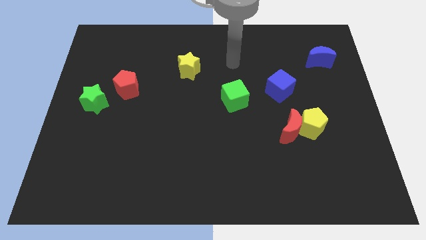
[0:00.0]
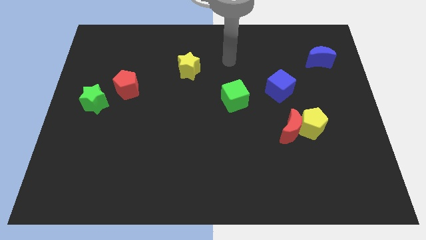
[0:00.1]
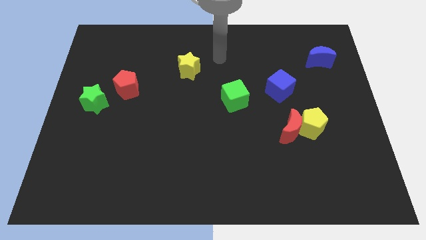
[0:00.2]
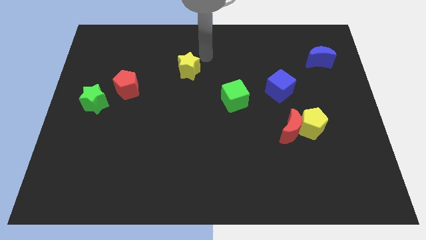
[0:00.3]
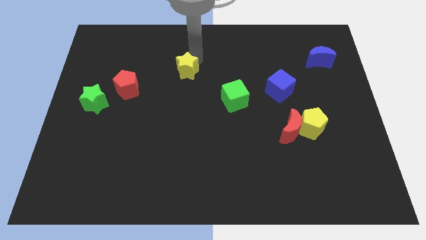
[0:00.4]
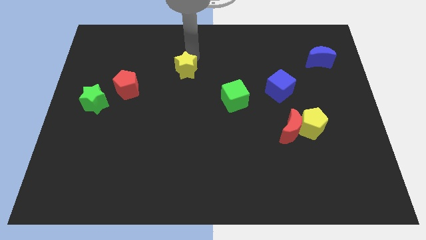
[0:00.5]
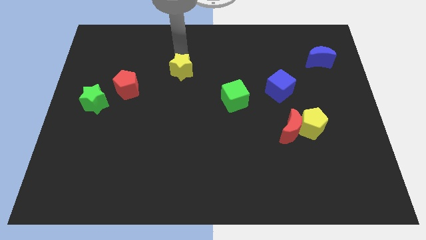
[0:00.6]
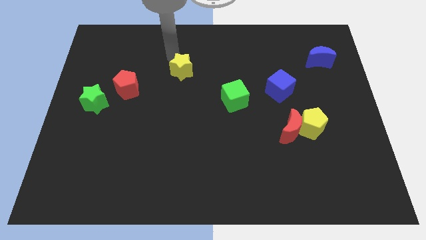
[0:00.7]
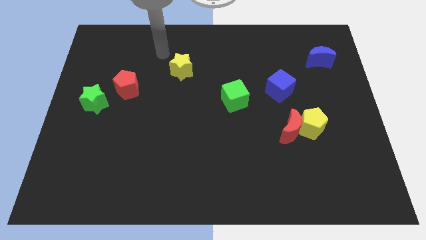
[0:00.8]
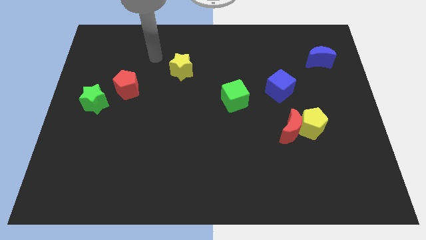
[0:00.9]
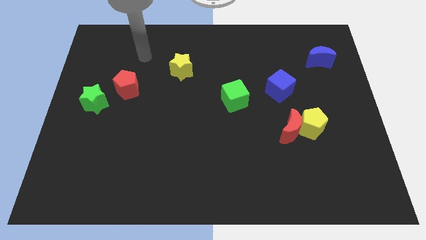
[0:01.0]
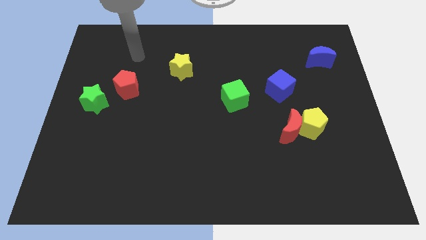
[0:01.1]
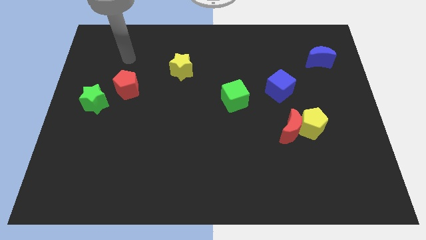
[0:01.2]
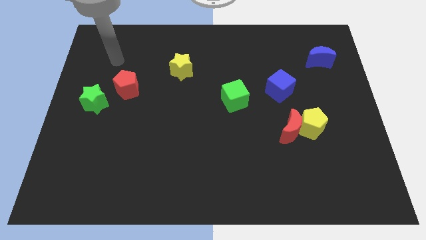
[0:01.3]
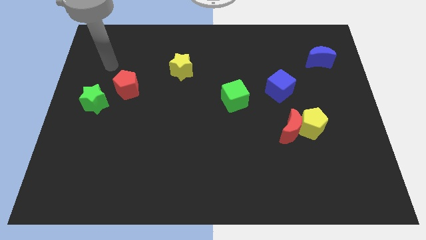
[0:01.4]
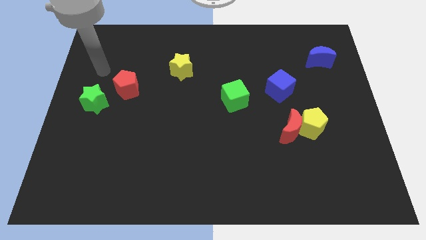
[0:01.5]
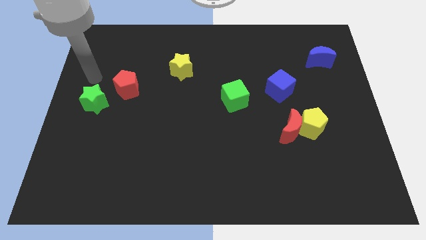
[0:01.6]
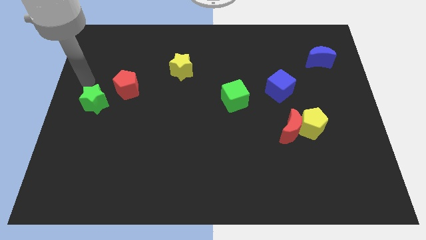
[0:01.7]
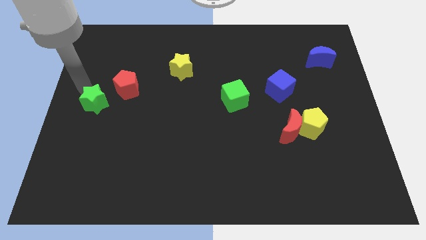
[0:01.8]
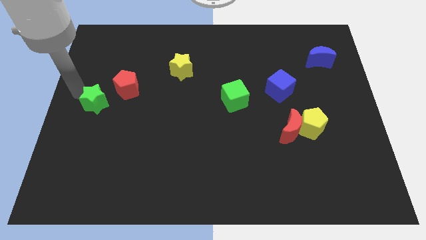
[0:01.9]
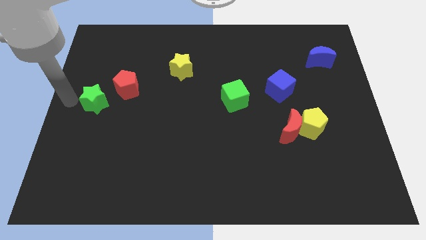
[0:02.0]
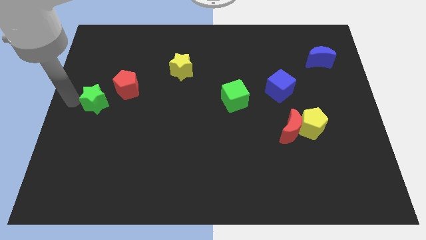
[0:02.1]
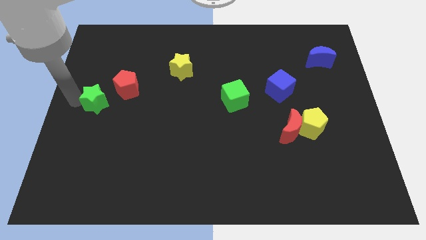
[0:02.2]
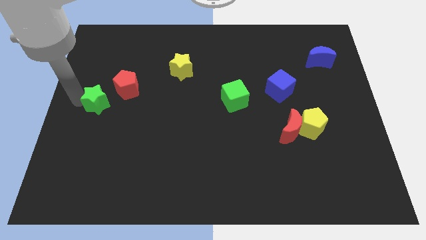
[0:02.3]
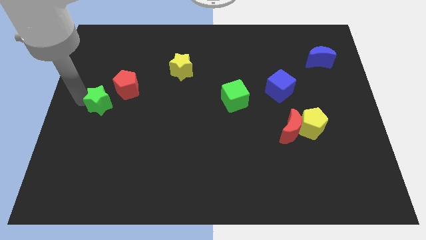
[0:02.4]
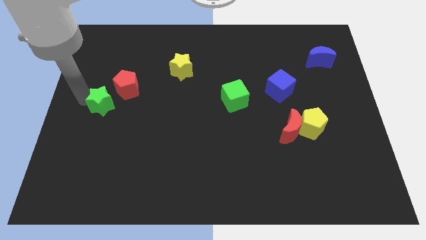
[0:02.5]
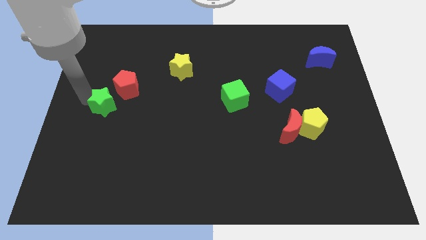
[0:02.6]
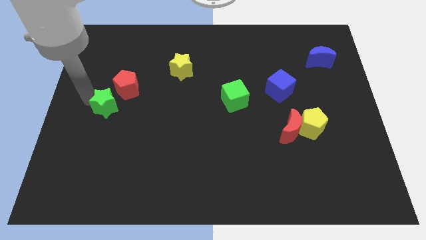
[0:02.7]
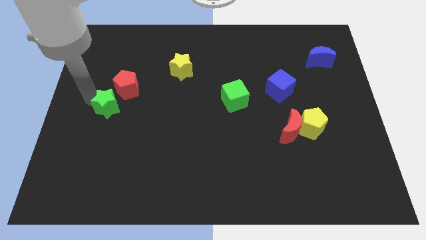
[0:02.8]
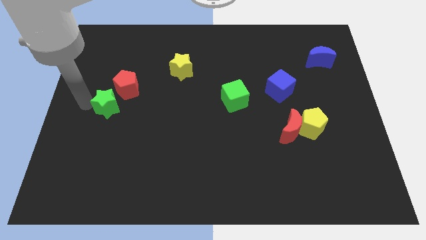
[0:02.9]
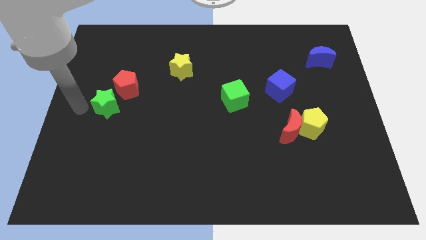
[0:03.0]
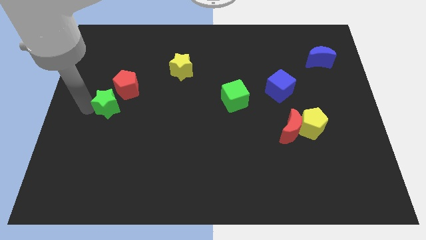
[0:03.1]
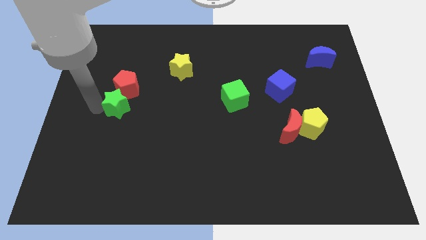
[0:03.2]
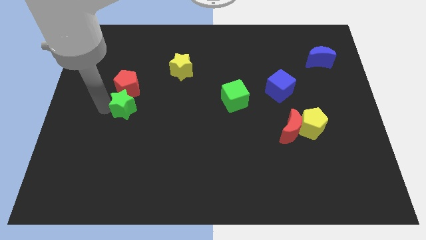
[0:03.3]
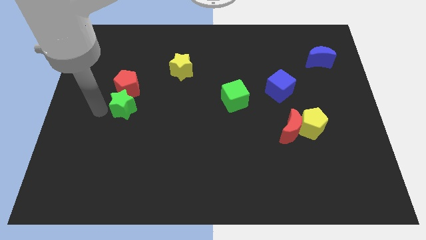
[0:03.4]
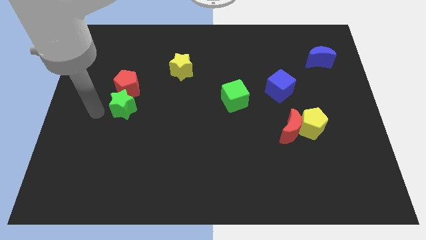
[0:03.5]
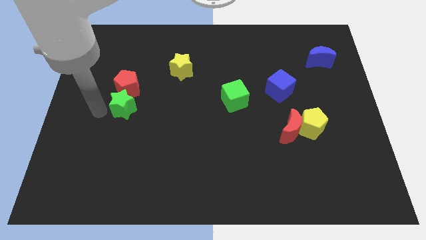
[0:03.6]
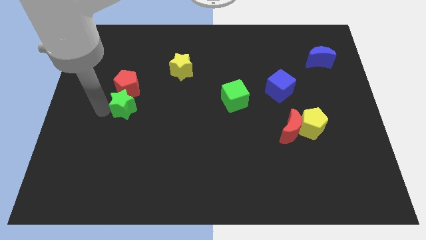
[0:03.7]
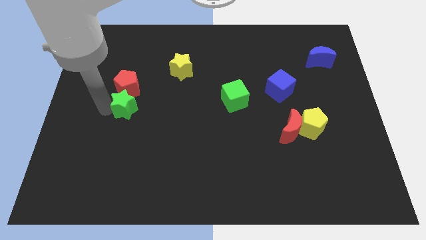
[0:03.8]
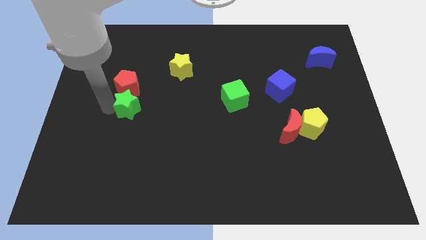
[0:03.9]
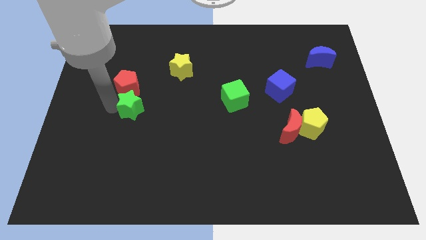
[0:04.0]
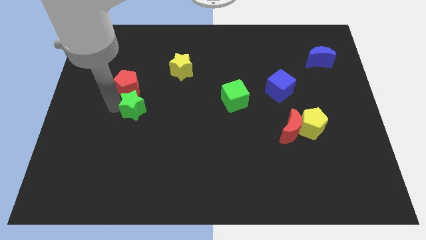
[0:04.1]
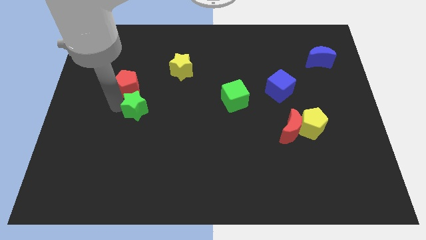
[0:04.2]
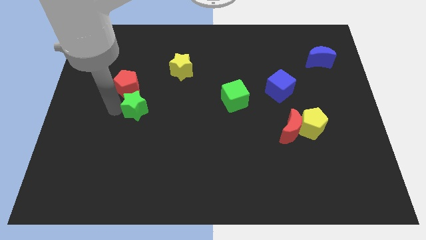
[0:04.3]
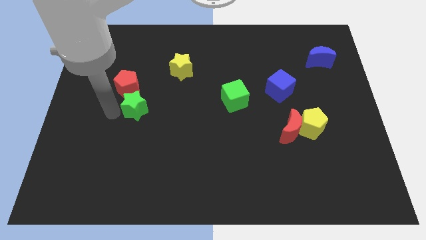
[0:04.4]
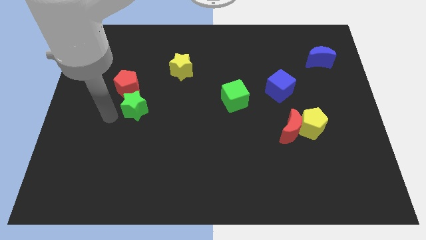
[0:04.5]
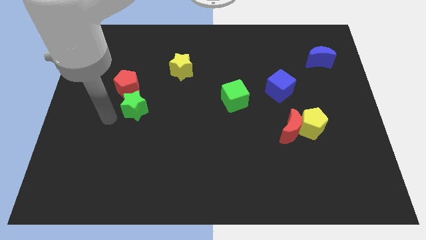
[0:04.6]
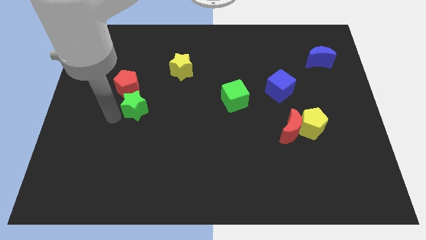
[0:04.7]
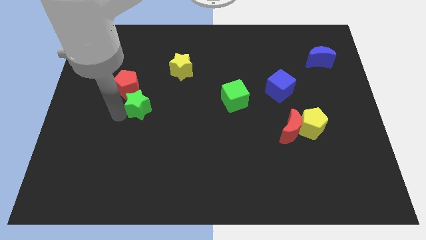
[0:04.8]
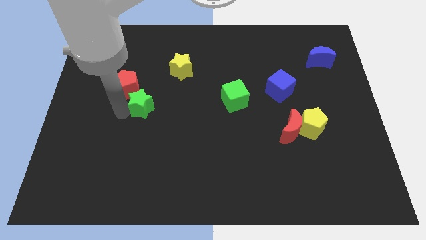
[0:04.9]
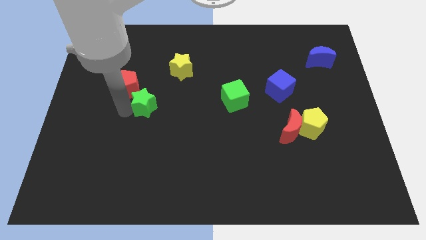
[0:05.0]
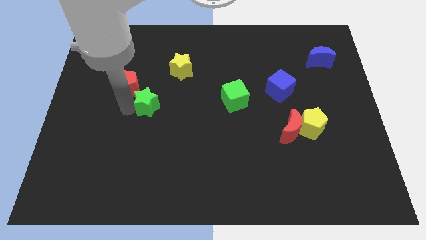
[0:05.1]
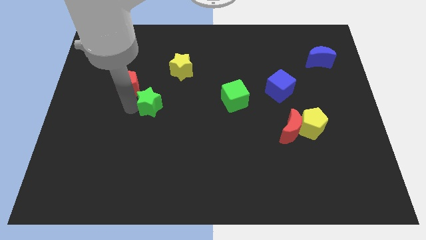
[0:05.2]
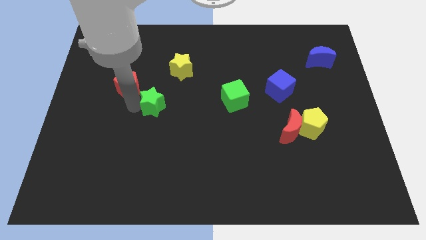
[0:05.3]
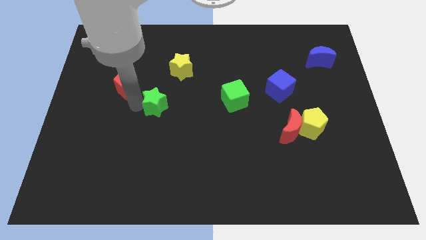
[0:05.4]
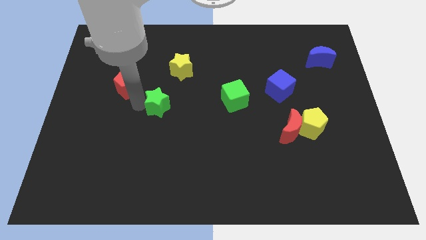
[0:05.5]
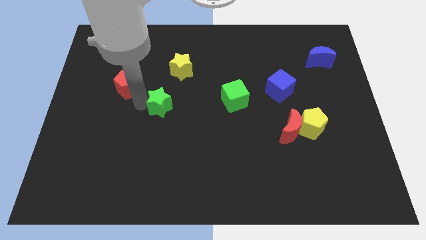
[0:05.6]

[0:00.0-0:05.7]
slide the green star to the middle

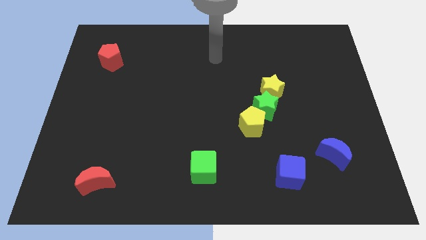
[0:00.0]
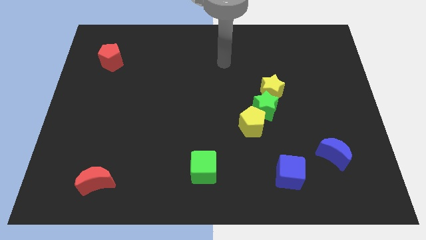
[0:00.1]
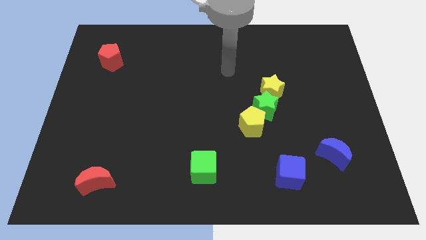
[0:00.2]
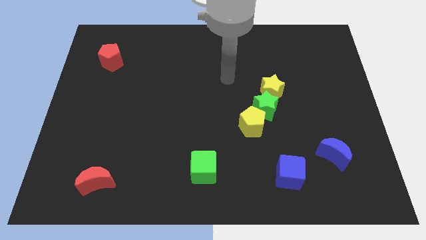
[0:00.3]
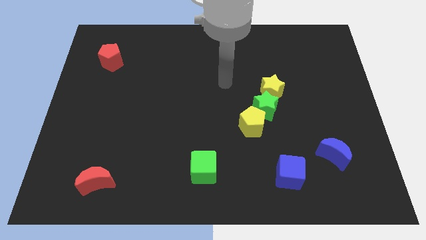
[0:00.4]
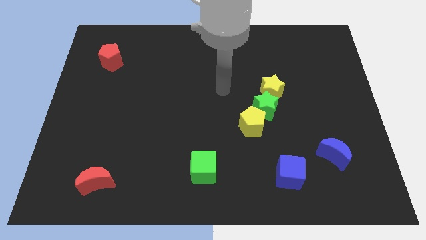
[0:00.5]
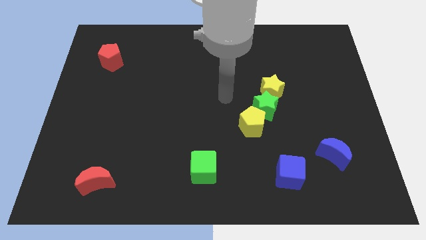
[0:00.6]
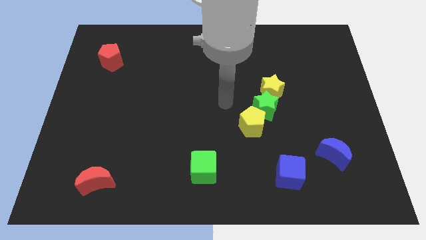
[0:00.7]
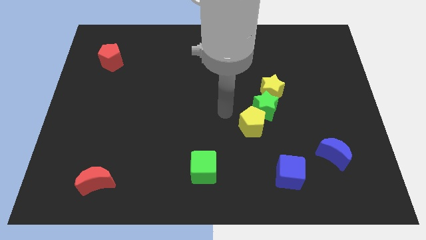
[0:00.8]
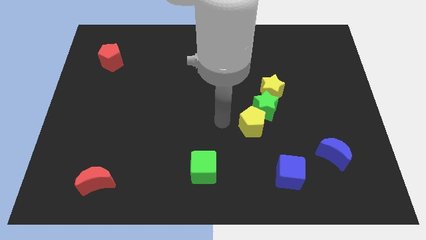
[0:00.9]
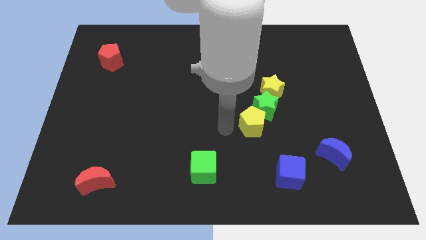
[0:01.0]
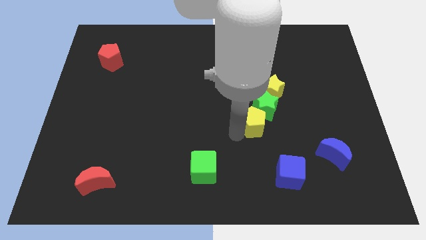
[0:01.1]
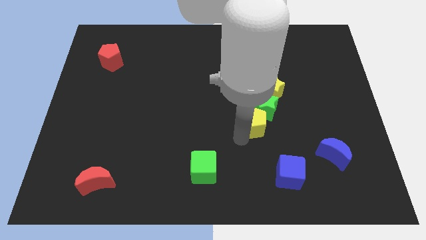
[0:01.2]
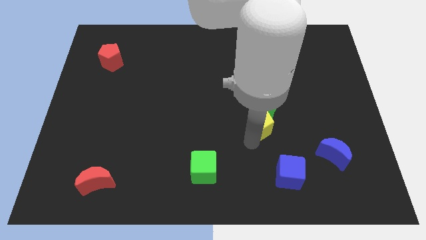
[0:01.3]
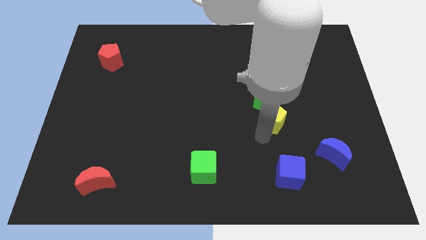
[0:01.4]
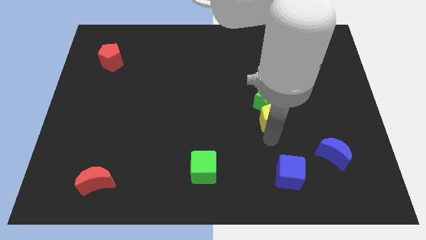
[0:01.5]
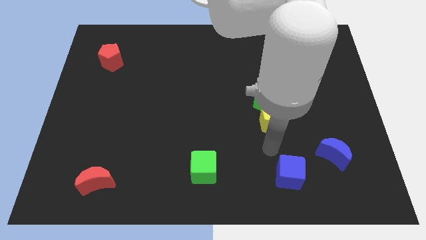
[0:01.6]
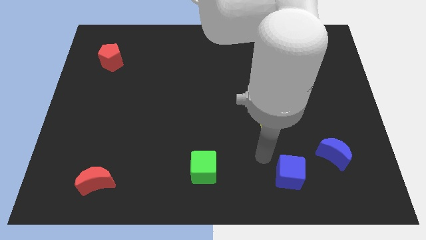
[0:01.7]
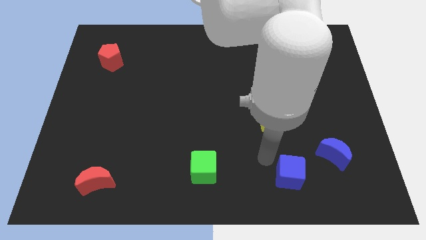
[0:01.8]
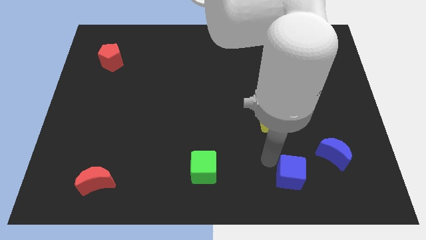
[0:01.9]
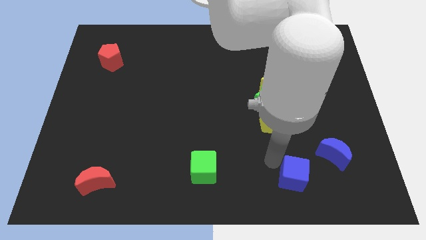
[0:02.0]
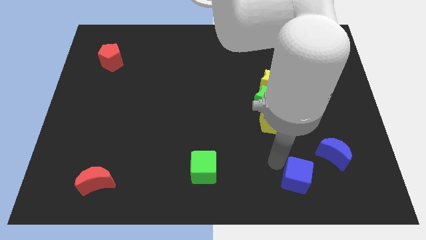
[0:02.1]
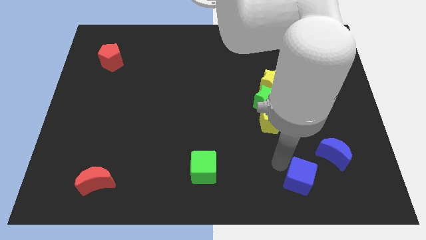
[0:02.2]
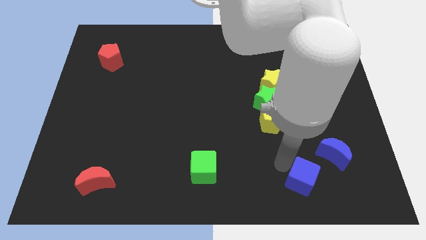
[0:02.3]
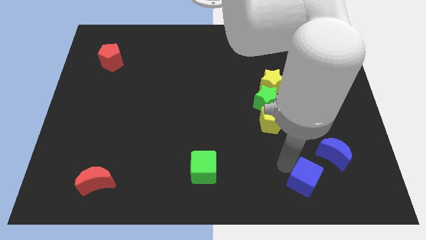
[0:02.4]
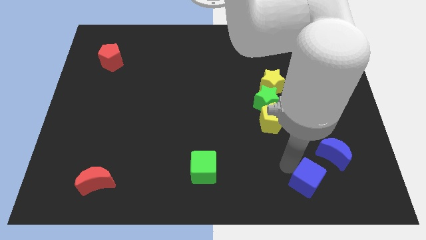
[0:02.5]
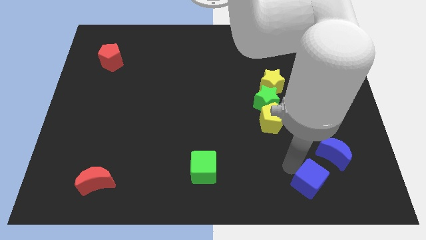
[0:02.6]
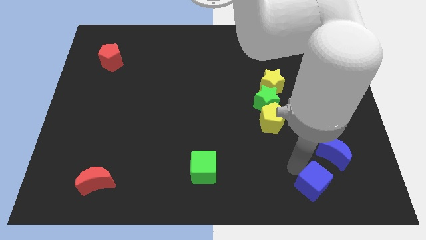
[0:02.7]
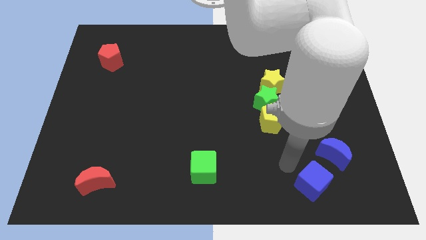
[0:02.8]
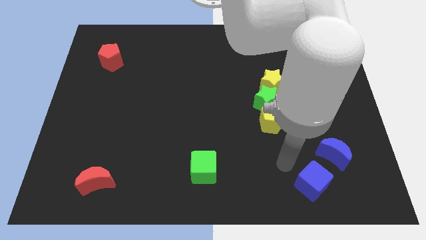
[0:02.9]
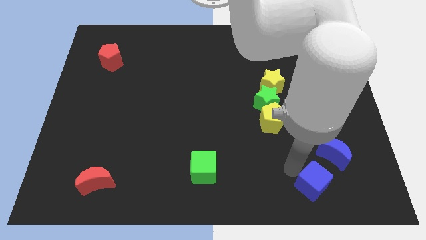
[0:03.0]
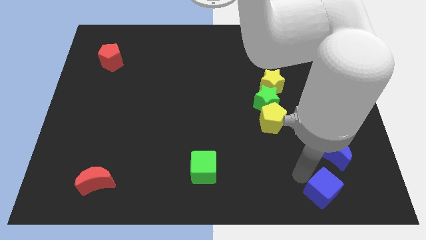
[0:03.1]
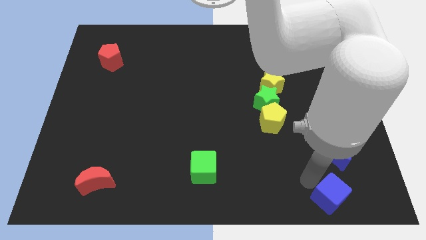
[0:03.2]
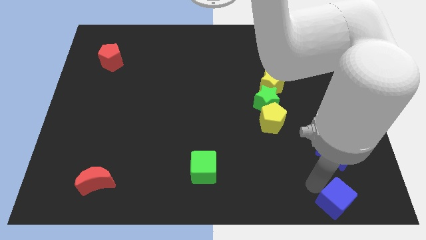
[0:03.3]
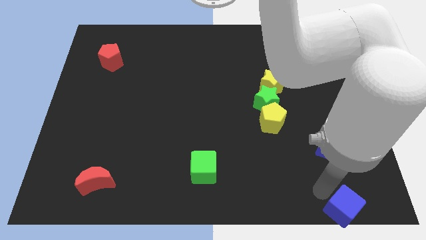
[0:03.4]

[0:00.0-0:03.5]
put the blue cube to the bottom right corner
